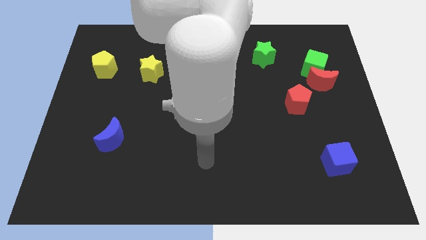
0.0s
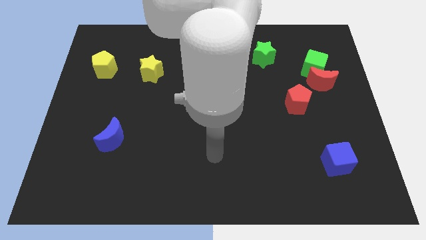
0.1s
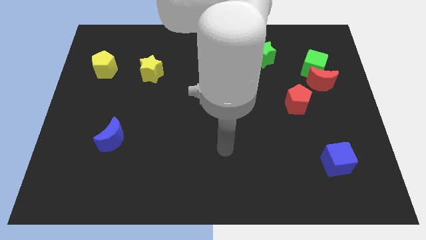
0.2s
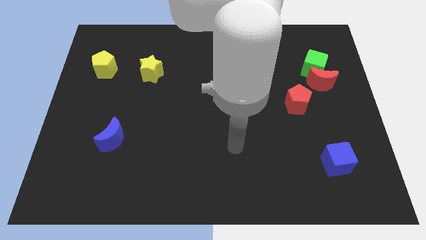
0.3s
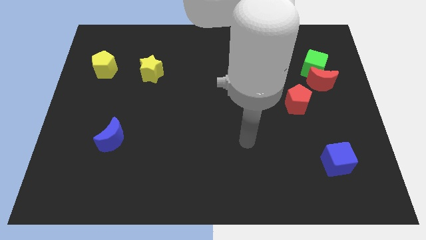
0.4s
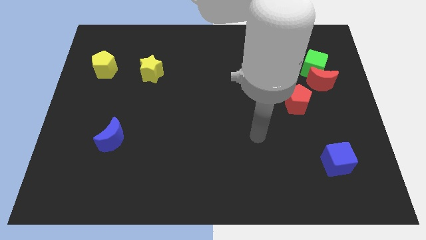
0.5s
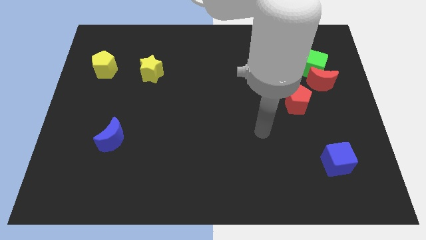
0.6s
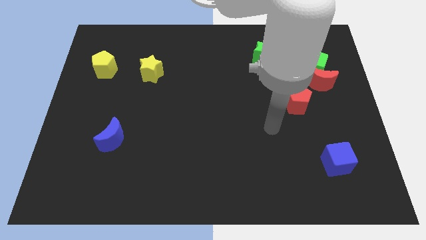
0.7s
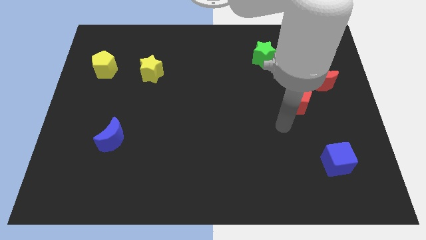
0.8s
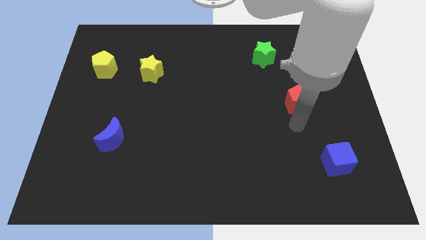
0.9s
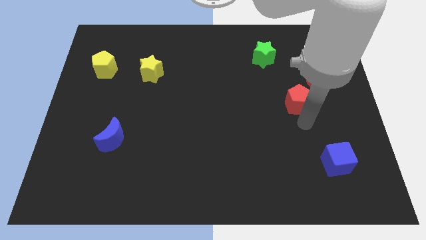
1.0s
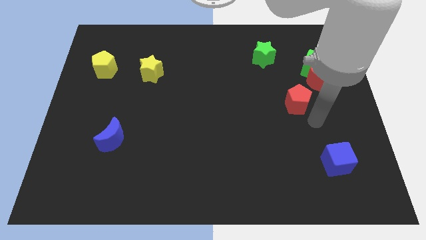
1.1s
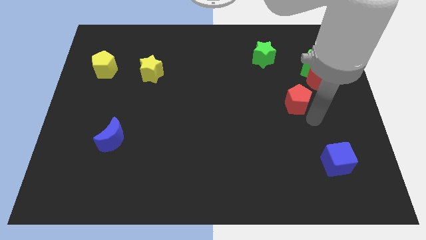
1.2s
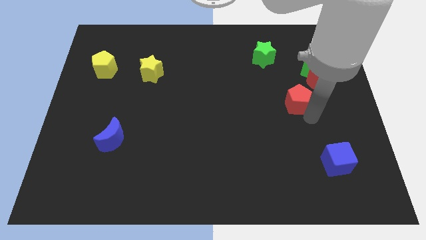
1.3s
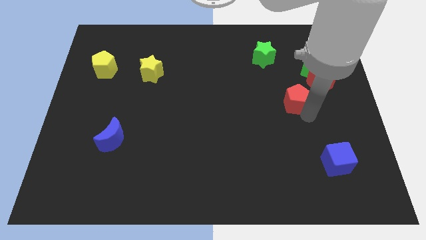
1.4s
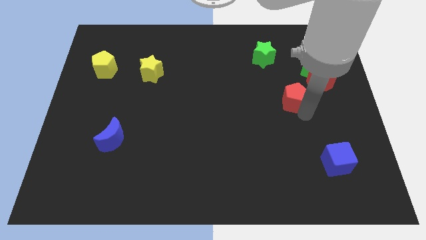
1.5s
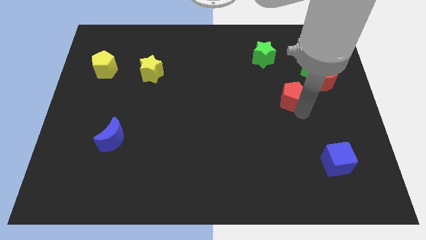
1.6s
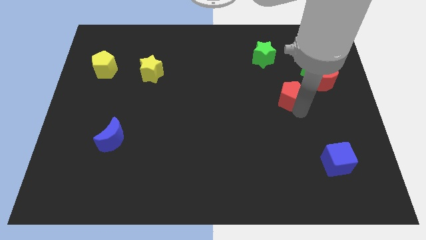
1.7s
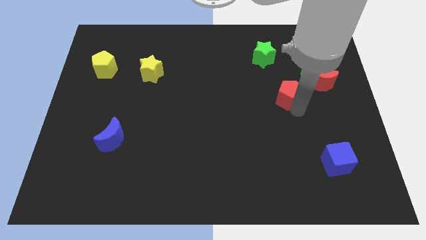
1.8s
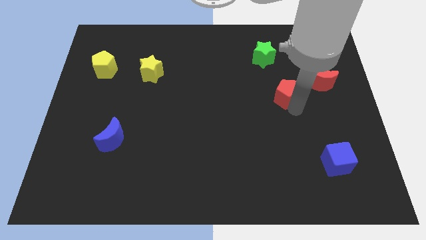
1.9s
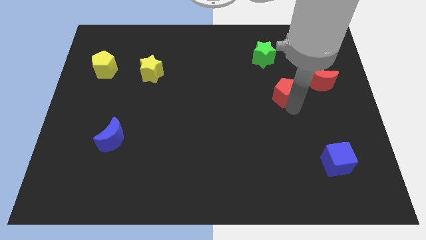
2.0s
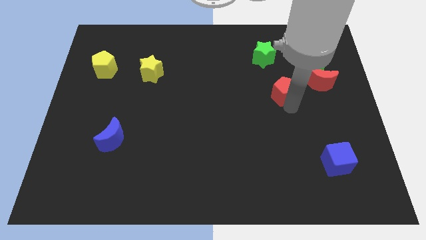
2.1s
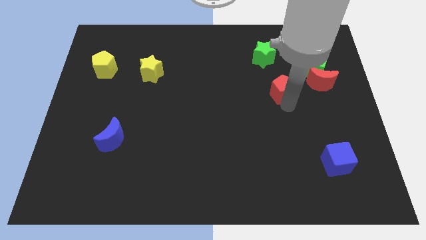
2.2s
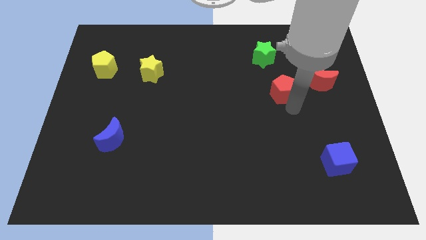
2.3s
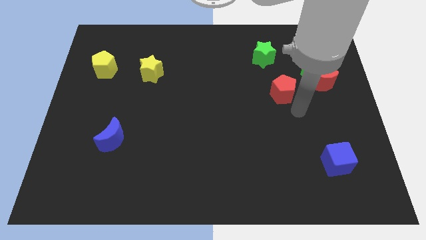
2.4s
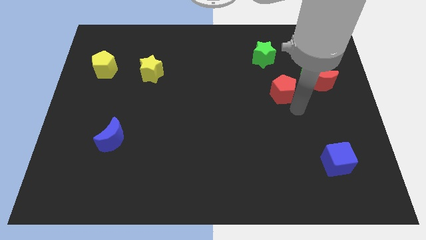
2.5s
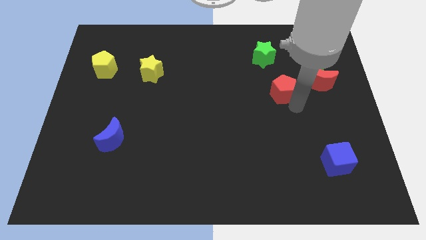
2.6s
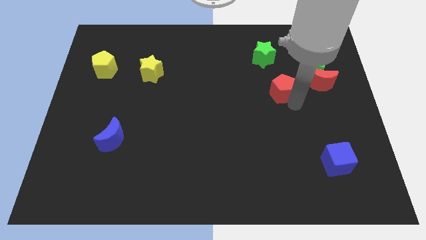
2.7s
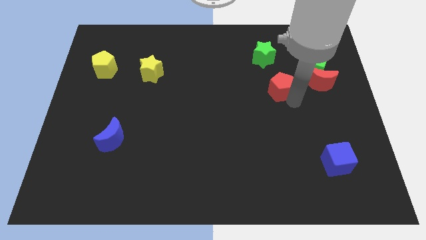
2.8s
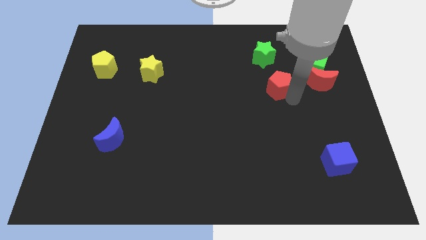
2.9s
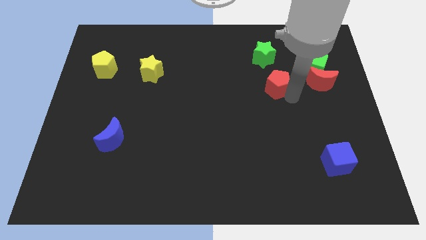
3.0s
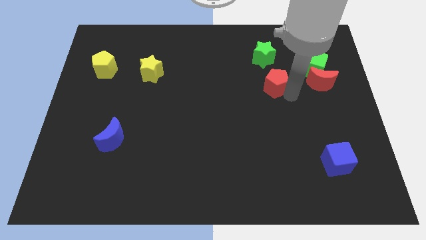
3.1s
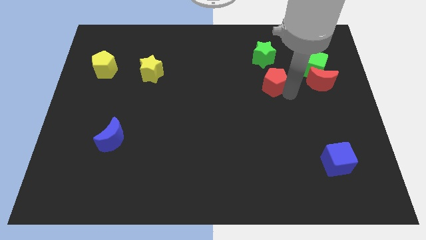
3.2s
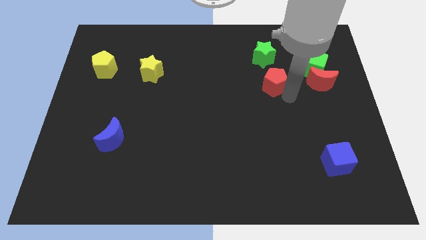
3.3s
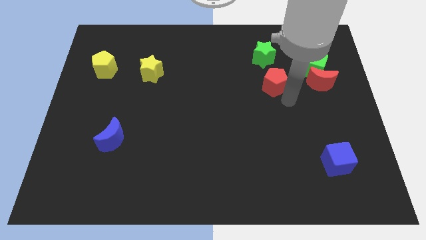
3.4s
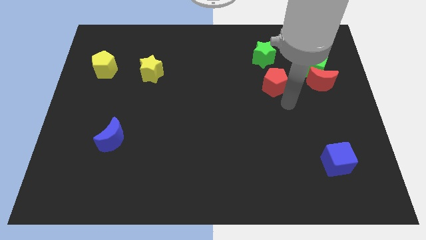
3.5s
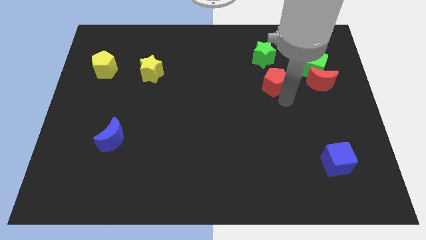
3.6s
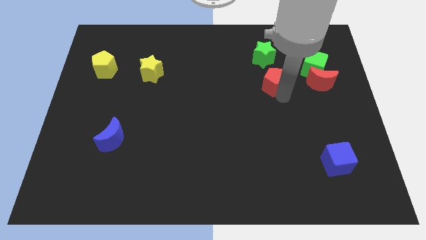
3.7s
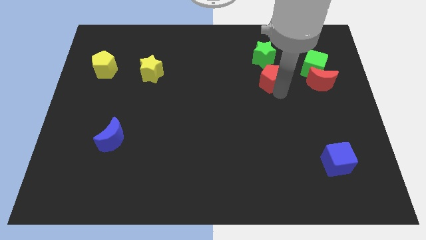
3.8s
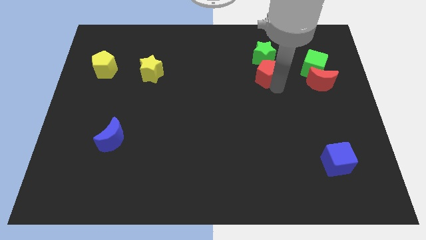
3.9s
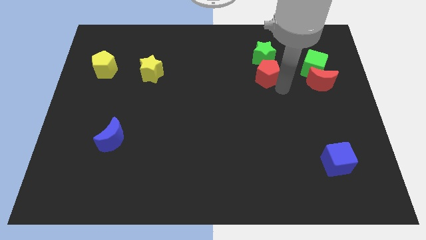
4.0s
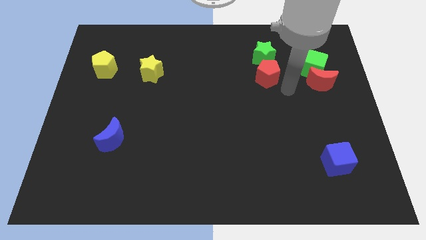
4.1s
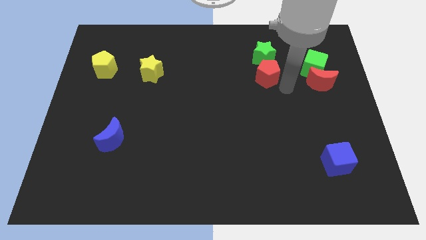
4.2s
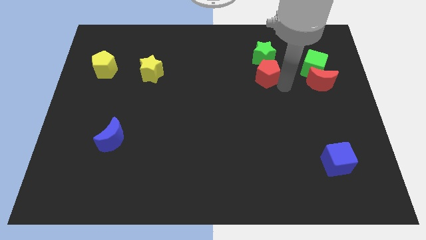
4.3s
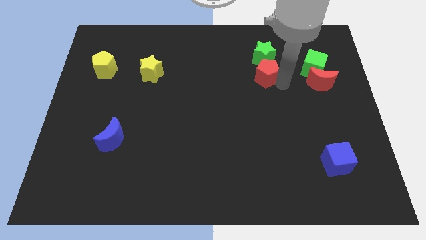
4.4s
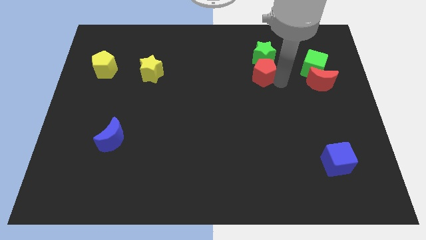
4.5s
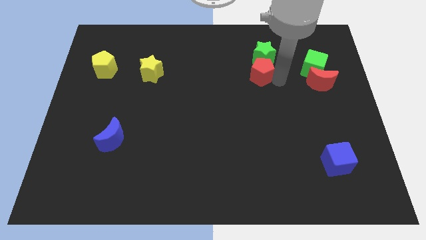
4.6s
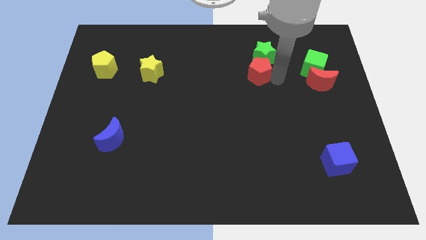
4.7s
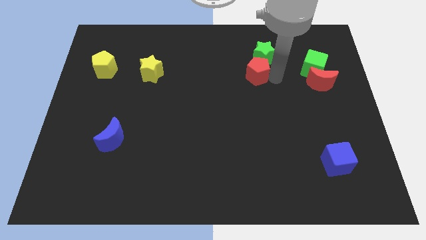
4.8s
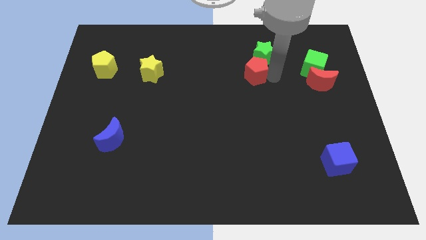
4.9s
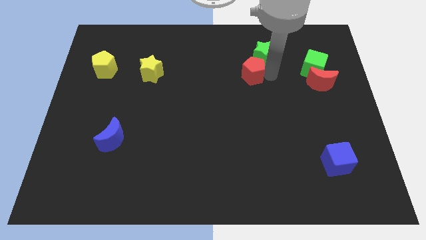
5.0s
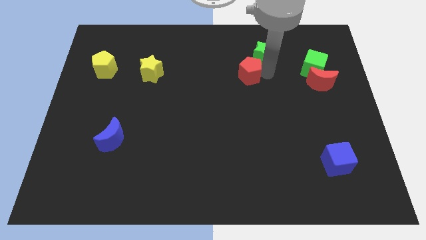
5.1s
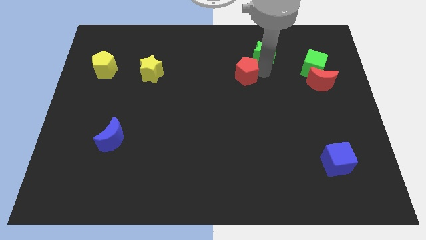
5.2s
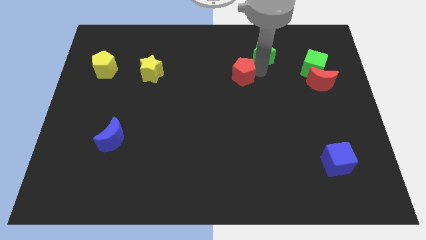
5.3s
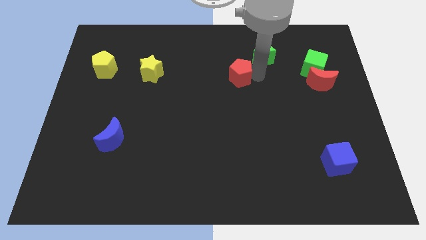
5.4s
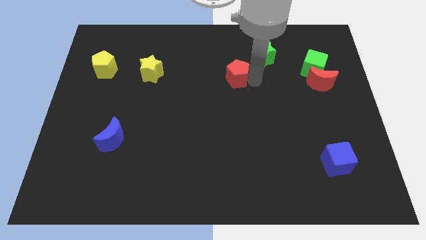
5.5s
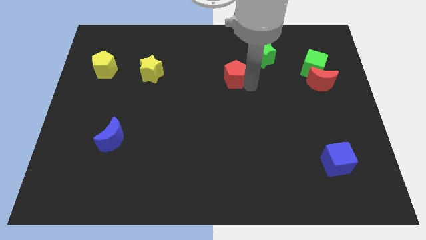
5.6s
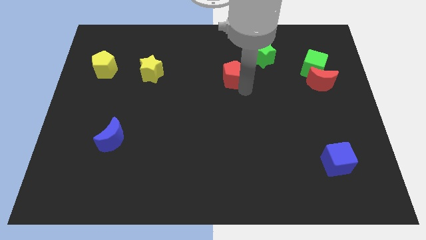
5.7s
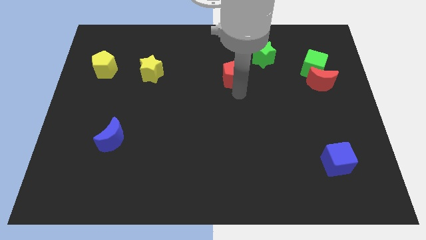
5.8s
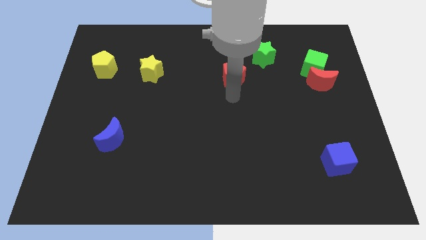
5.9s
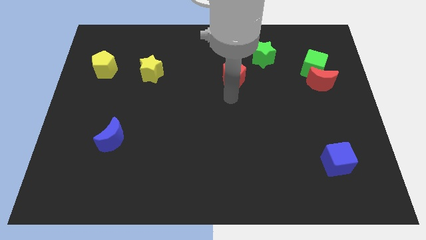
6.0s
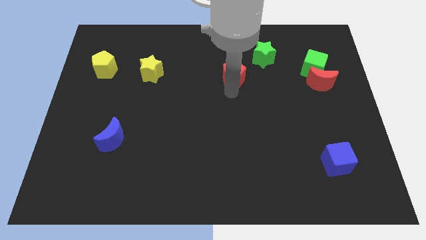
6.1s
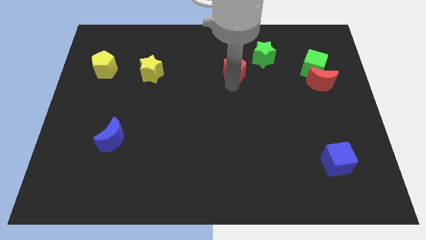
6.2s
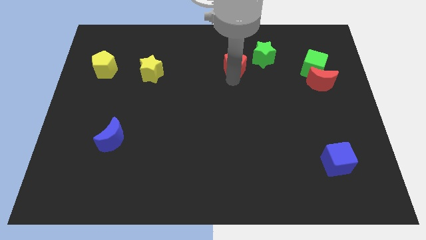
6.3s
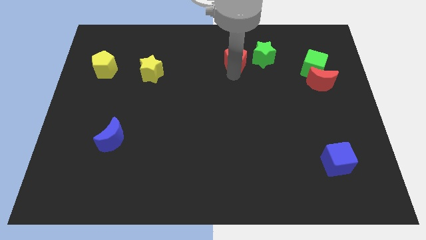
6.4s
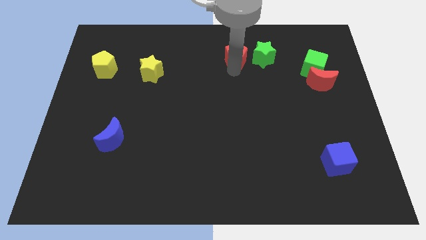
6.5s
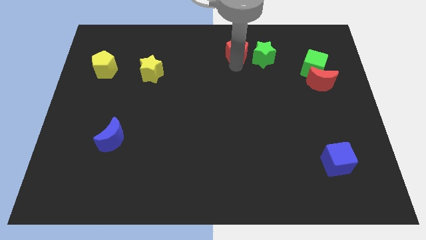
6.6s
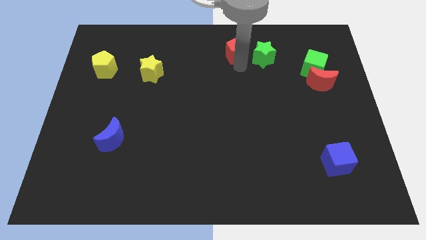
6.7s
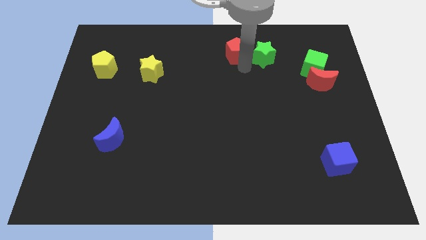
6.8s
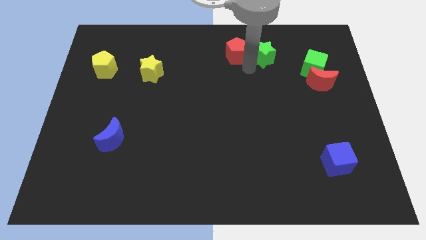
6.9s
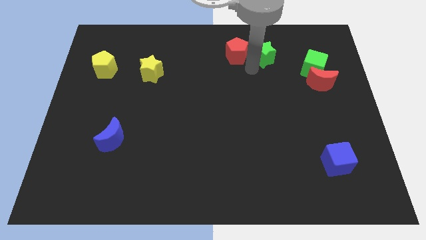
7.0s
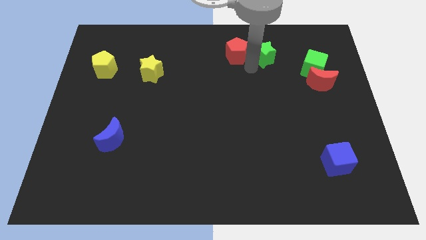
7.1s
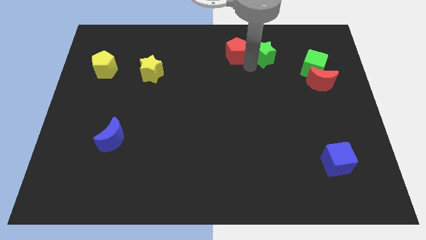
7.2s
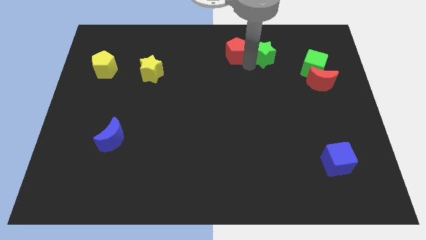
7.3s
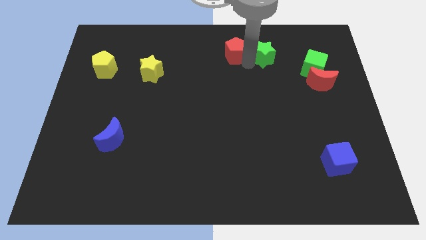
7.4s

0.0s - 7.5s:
put the red pentagon to the towards your base
